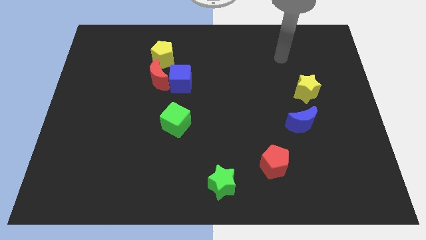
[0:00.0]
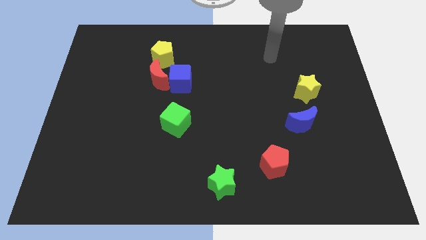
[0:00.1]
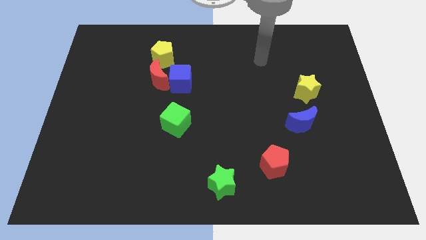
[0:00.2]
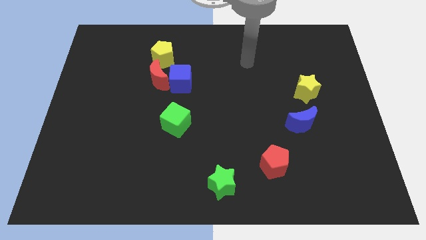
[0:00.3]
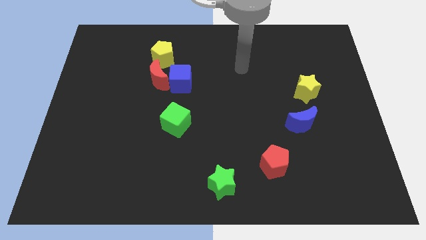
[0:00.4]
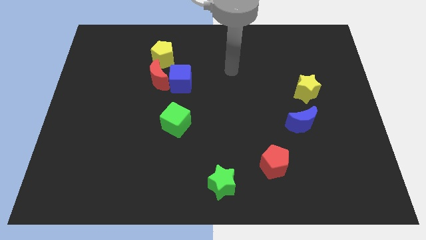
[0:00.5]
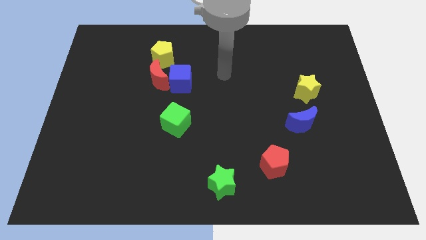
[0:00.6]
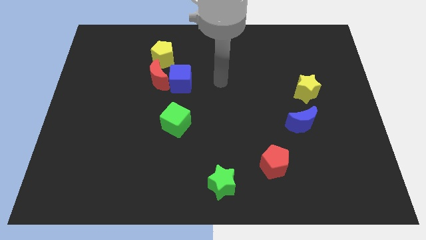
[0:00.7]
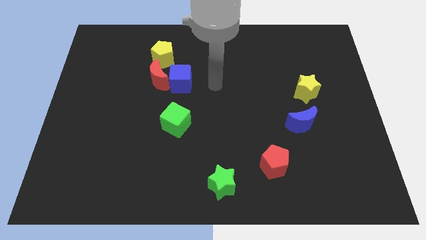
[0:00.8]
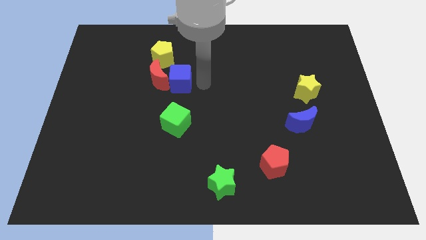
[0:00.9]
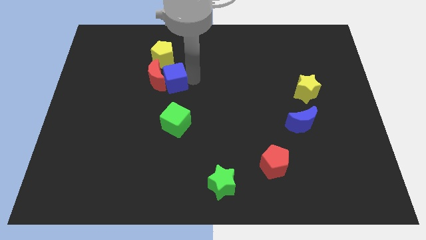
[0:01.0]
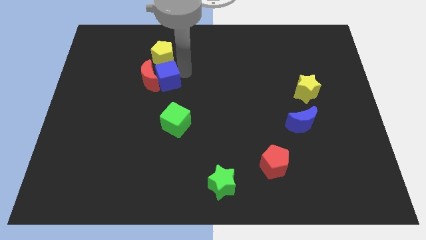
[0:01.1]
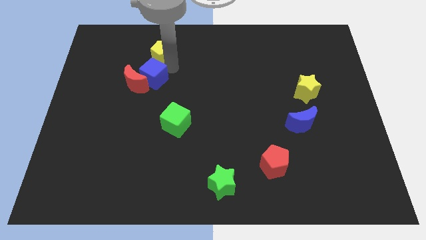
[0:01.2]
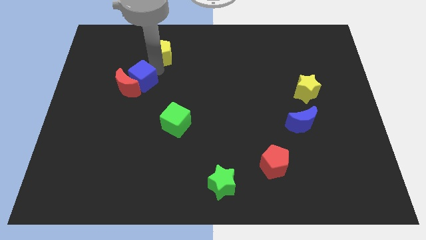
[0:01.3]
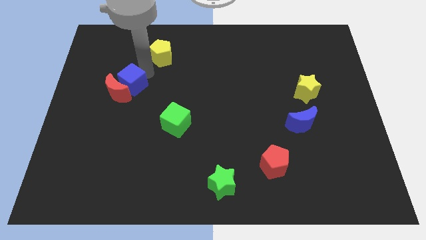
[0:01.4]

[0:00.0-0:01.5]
separate the red moon from the blue cube and yellow pentagon

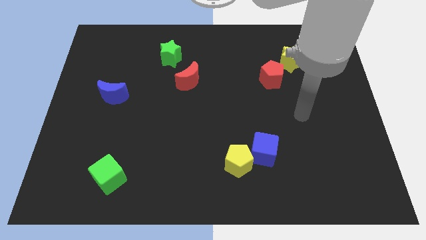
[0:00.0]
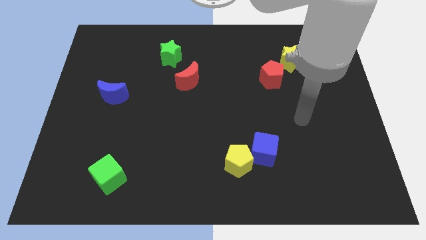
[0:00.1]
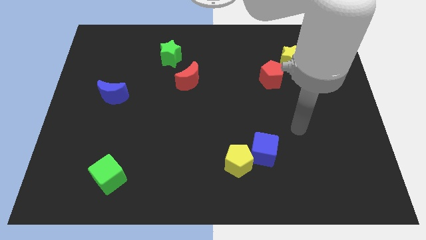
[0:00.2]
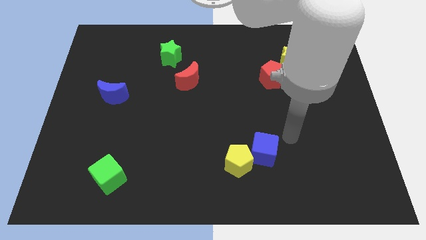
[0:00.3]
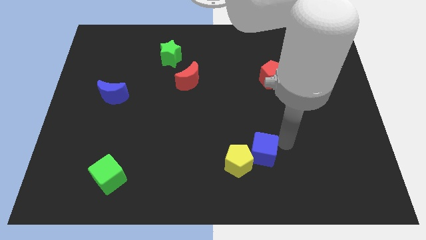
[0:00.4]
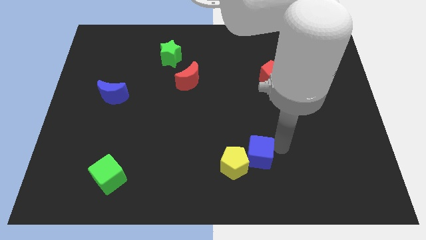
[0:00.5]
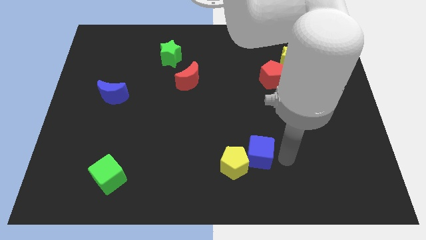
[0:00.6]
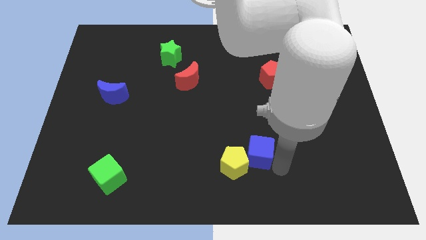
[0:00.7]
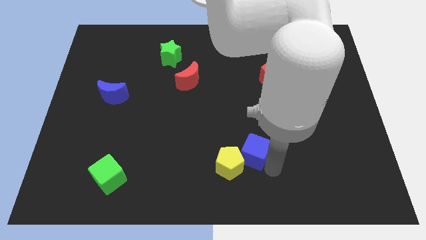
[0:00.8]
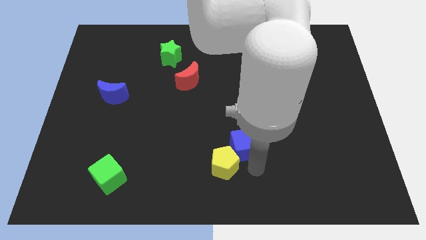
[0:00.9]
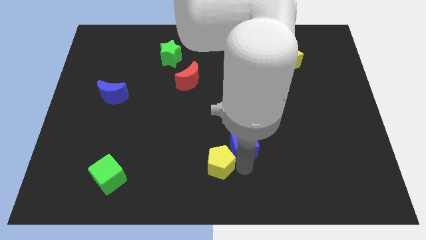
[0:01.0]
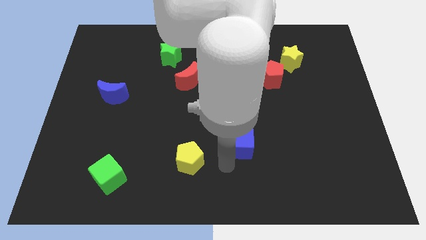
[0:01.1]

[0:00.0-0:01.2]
separate the blue cube from the yellow pentagon

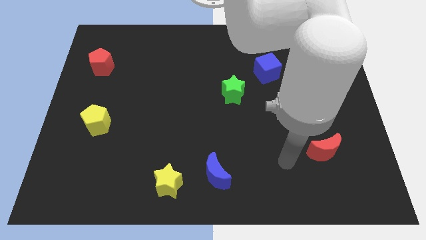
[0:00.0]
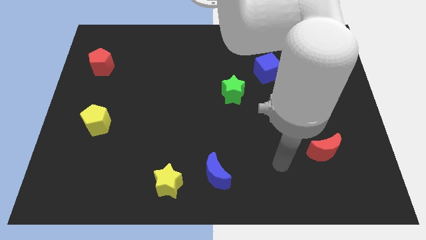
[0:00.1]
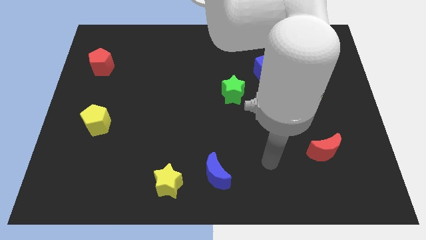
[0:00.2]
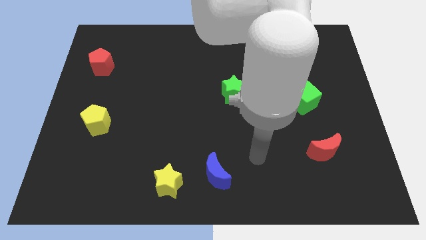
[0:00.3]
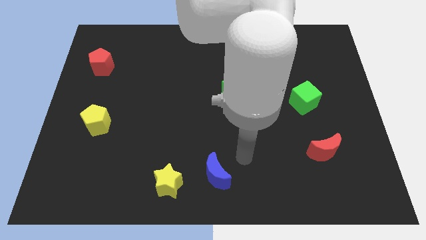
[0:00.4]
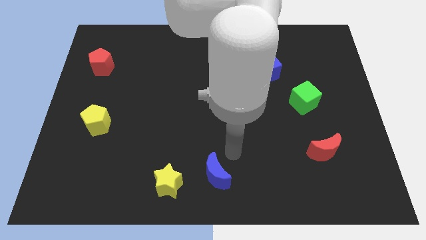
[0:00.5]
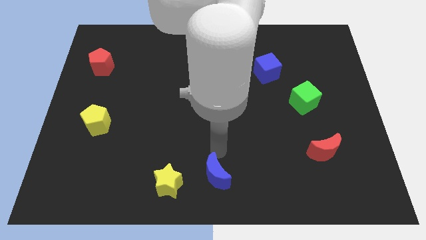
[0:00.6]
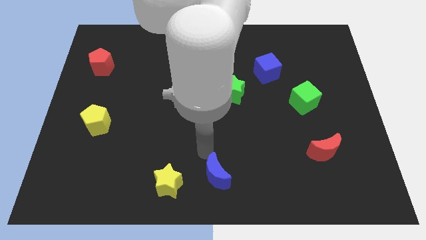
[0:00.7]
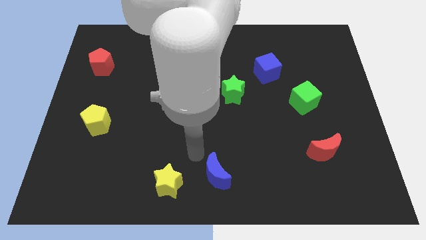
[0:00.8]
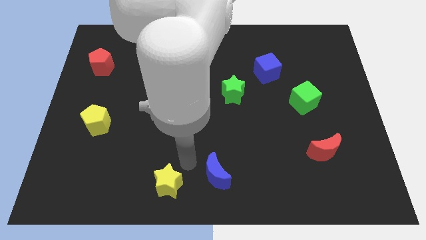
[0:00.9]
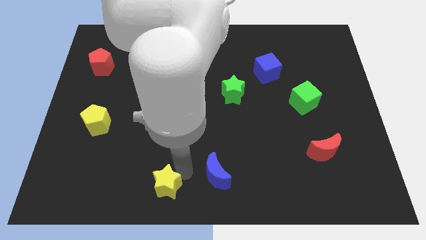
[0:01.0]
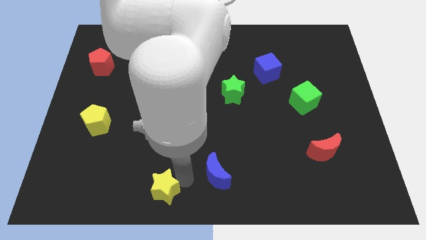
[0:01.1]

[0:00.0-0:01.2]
separate the blue moon from the yellow star

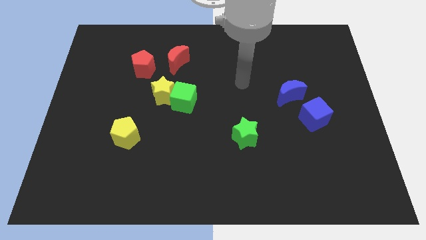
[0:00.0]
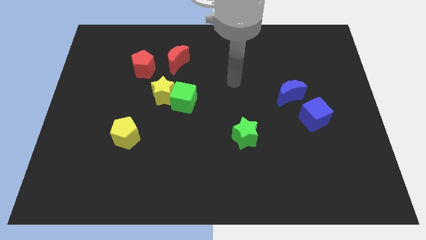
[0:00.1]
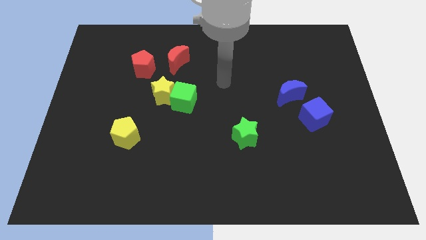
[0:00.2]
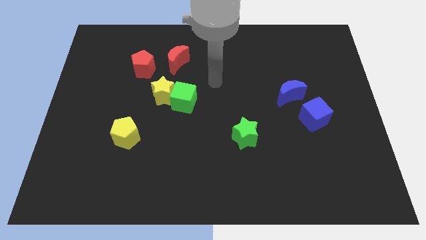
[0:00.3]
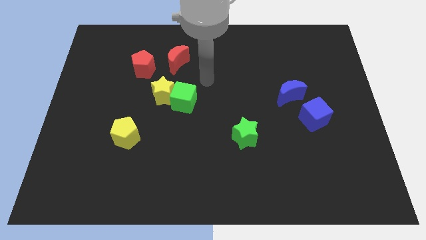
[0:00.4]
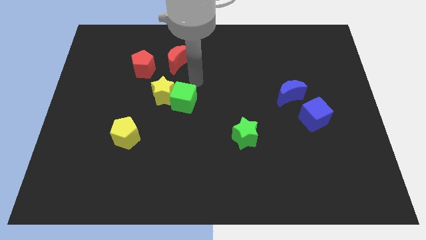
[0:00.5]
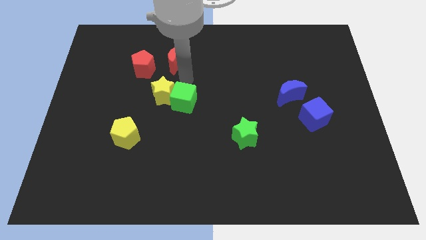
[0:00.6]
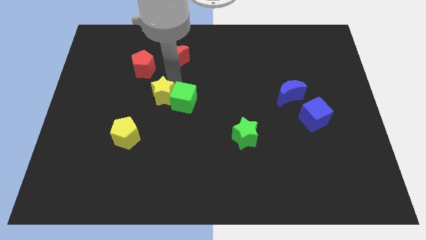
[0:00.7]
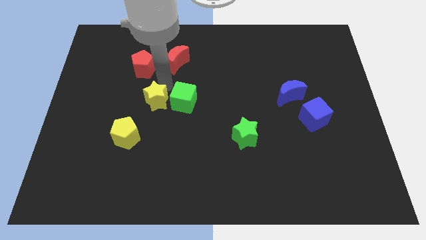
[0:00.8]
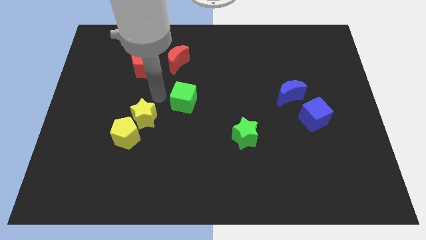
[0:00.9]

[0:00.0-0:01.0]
move the green cube away from the yellow star

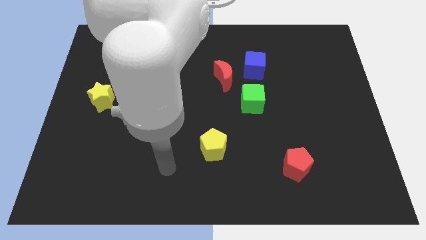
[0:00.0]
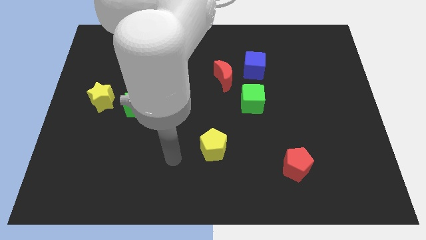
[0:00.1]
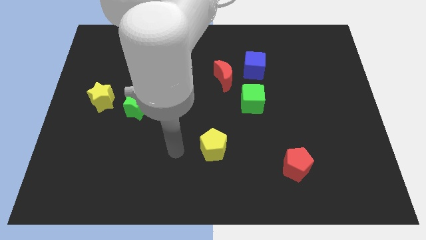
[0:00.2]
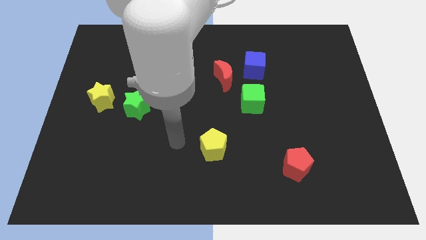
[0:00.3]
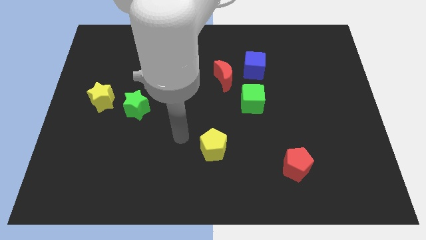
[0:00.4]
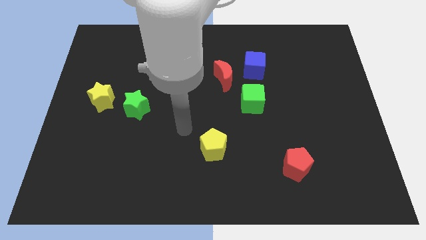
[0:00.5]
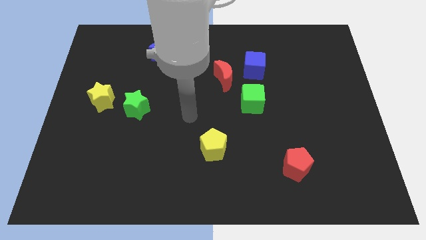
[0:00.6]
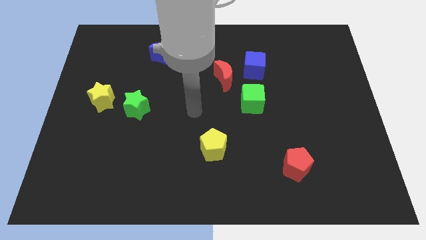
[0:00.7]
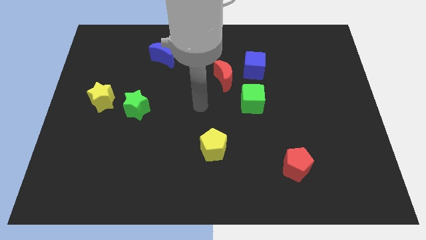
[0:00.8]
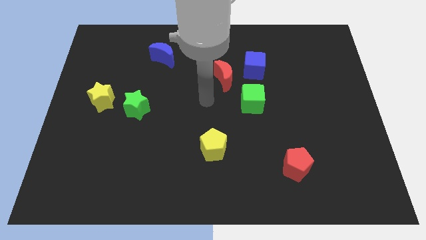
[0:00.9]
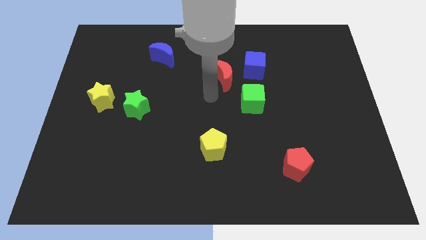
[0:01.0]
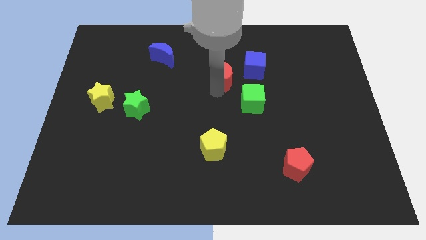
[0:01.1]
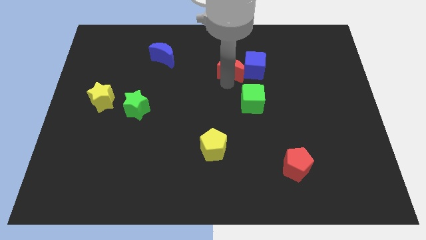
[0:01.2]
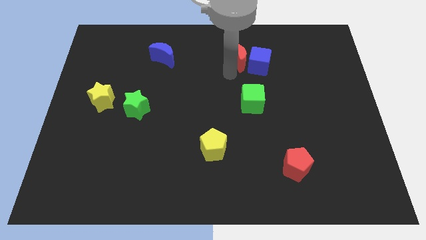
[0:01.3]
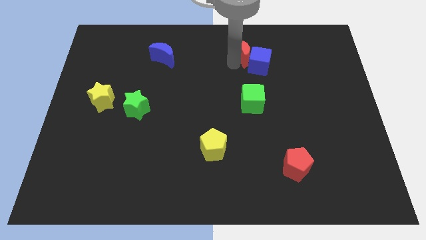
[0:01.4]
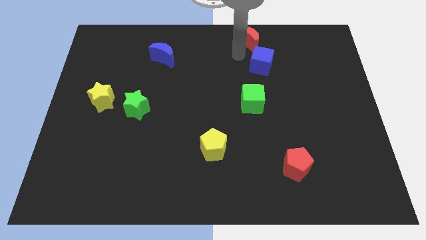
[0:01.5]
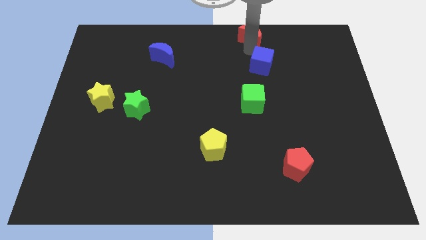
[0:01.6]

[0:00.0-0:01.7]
separate the blue cube from the red moon

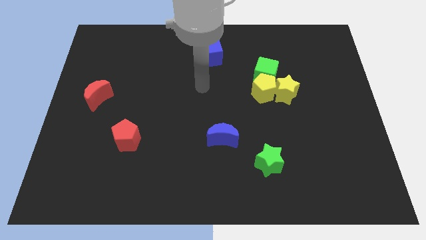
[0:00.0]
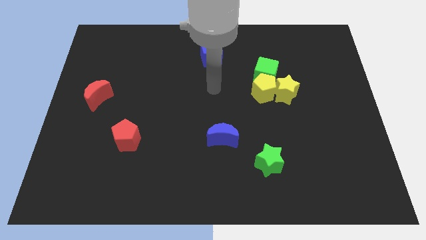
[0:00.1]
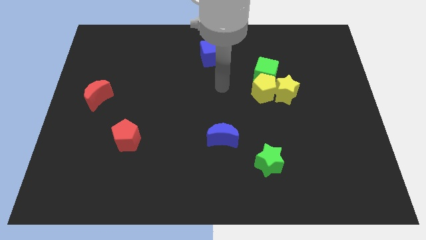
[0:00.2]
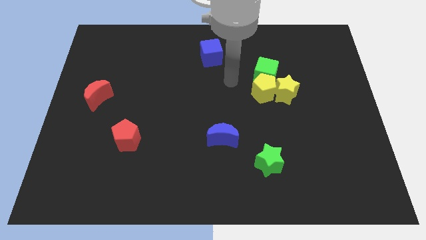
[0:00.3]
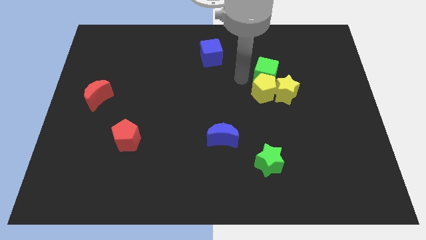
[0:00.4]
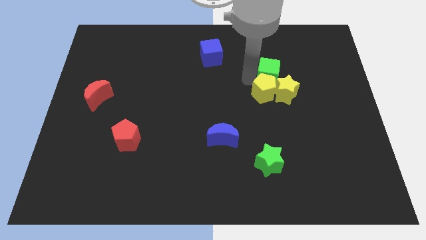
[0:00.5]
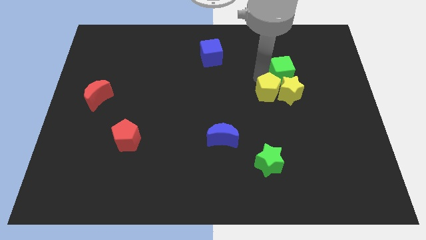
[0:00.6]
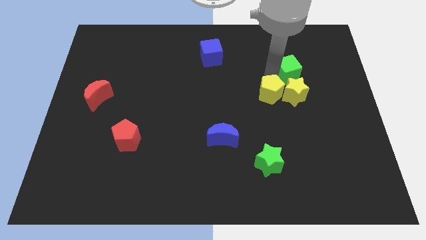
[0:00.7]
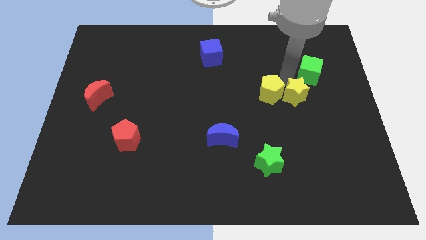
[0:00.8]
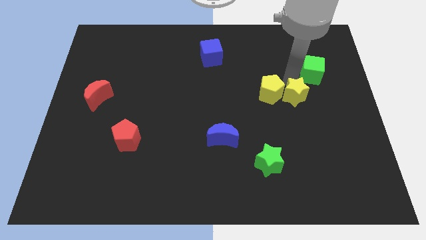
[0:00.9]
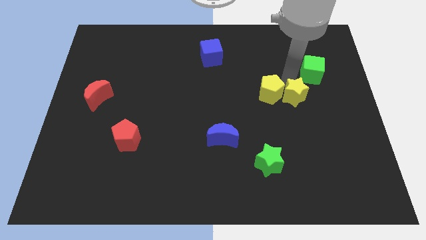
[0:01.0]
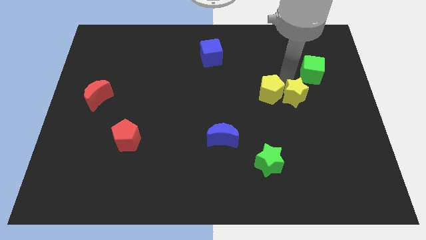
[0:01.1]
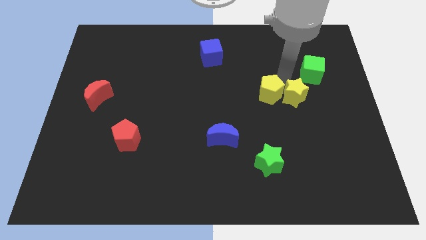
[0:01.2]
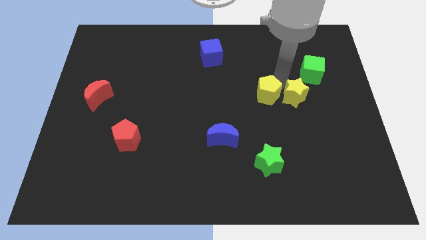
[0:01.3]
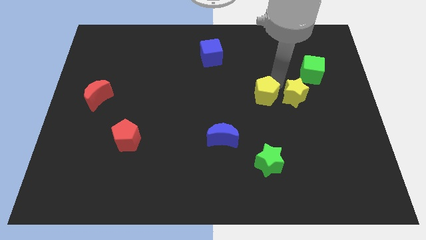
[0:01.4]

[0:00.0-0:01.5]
move the yellow pentagon away from the yellow star and green cube

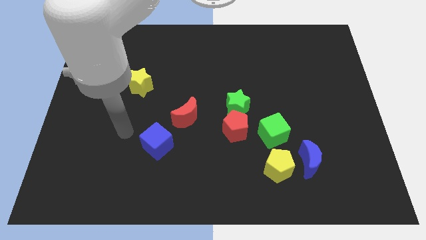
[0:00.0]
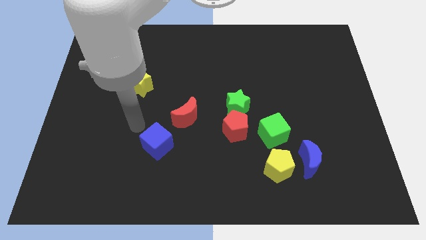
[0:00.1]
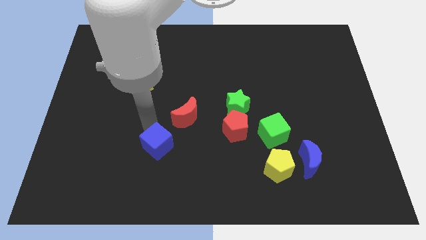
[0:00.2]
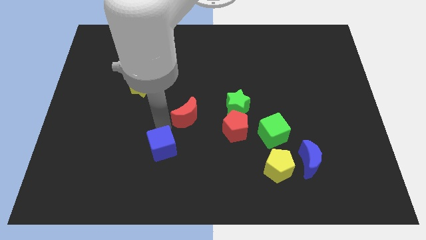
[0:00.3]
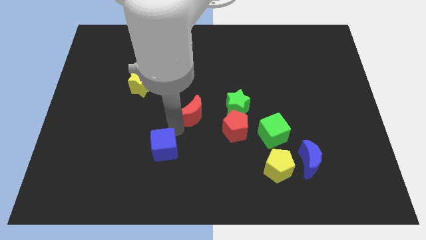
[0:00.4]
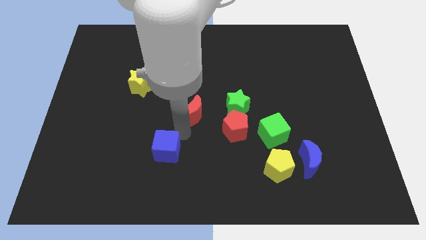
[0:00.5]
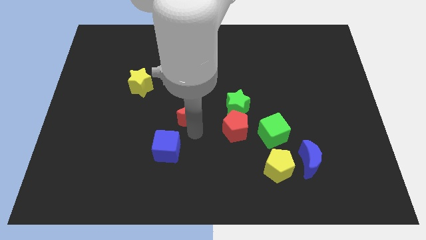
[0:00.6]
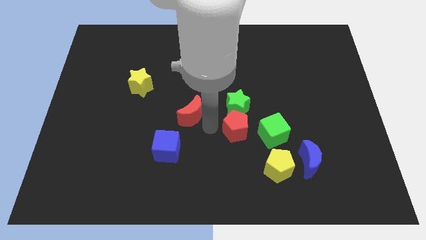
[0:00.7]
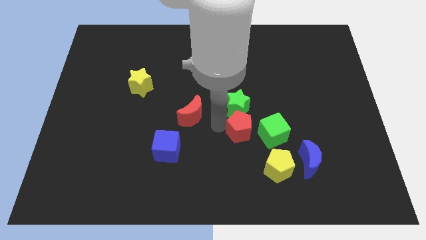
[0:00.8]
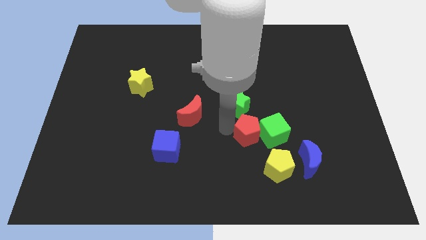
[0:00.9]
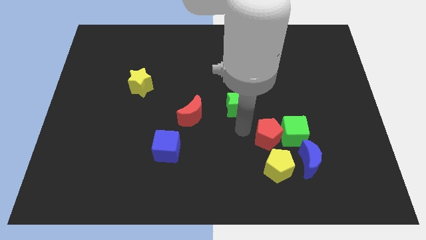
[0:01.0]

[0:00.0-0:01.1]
pull the green star apart from the red pentagon

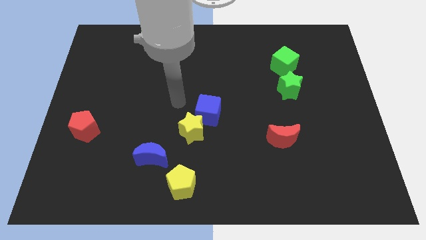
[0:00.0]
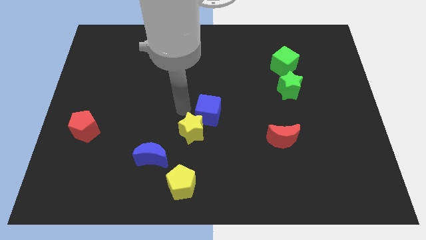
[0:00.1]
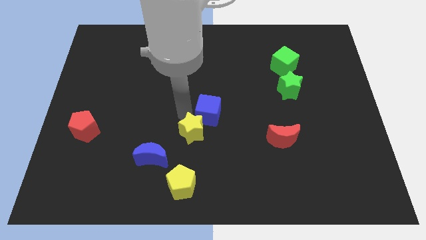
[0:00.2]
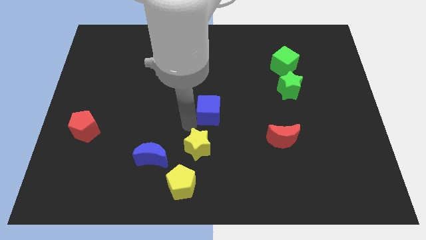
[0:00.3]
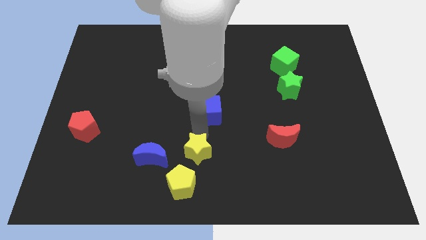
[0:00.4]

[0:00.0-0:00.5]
move the blue cube away from the yellow star
